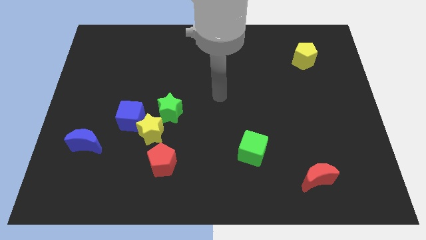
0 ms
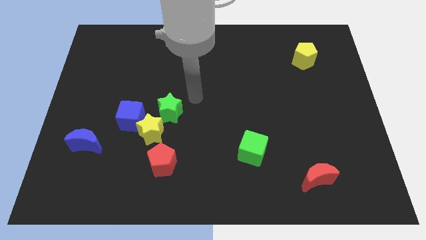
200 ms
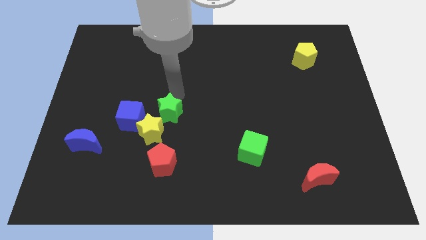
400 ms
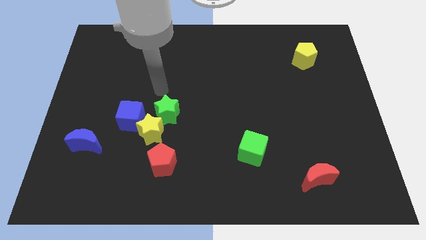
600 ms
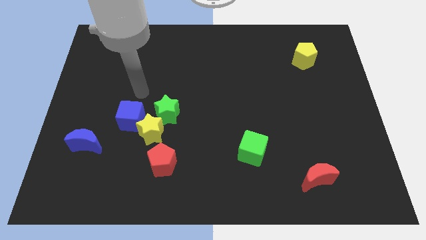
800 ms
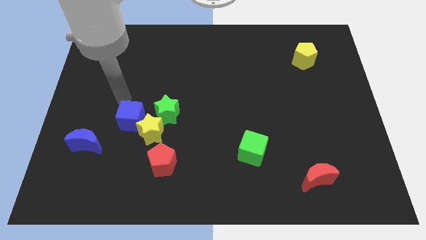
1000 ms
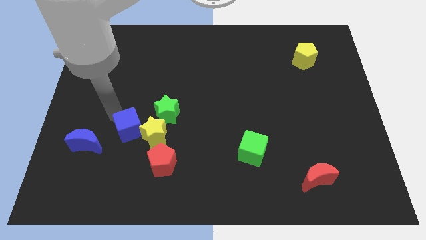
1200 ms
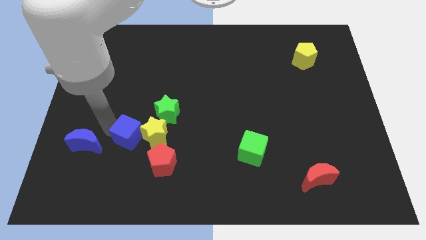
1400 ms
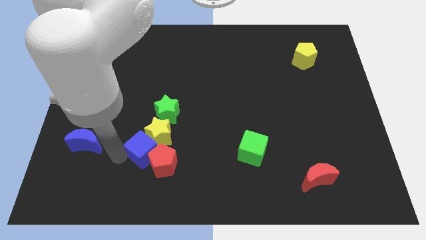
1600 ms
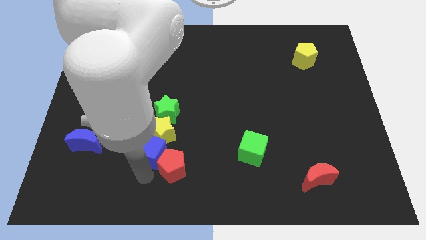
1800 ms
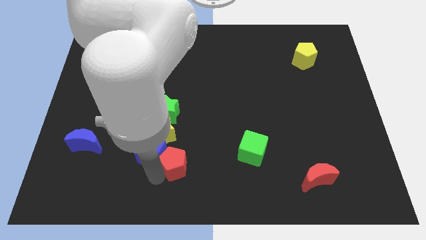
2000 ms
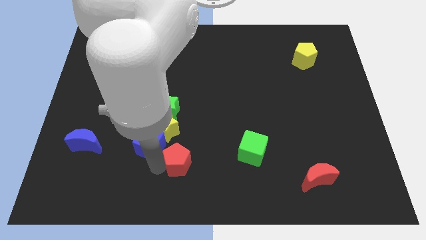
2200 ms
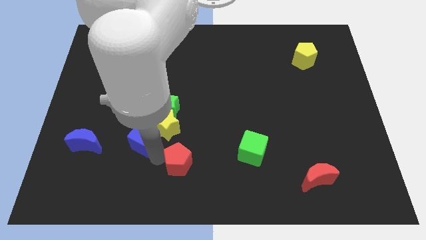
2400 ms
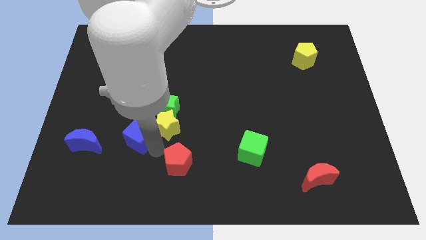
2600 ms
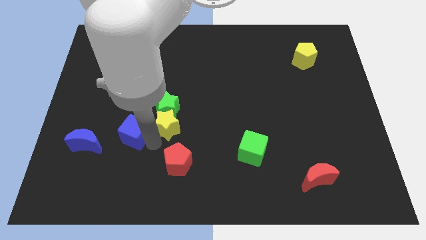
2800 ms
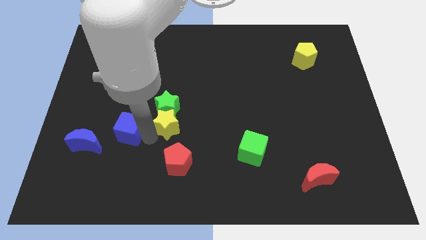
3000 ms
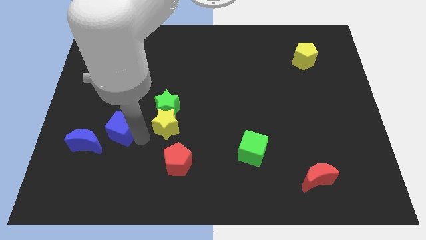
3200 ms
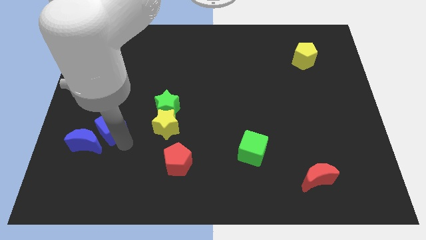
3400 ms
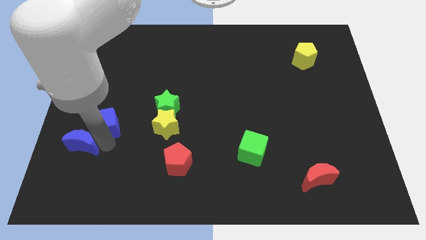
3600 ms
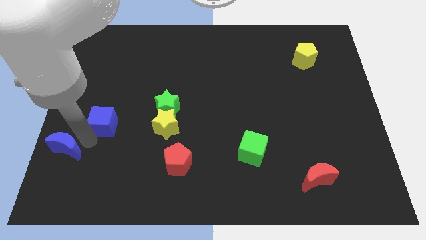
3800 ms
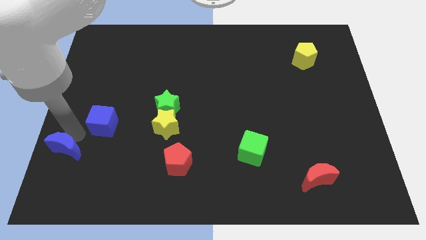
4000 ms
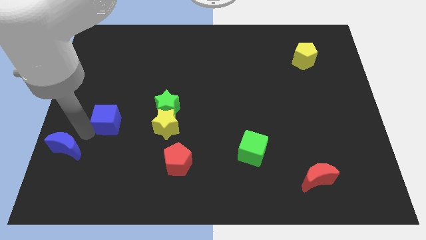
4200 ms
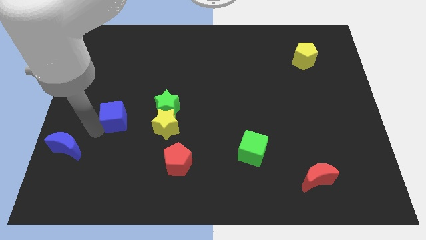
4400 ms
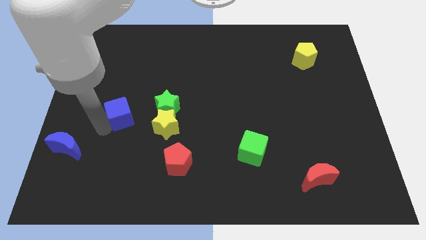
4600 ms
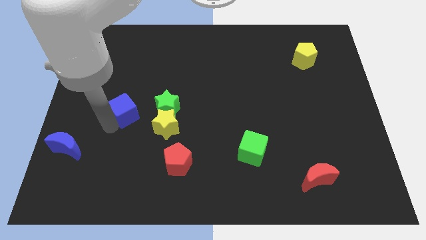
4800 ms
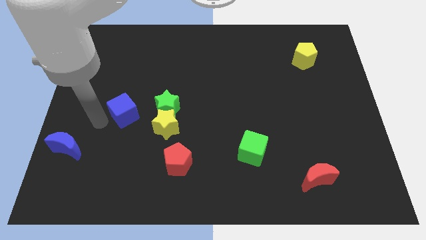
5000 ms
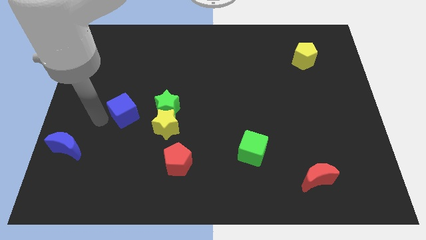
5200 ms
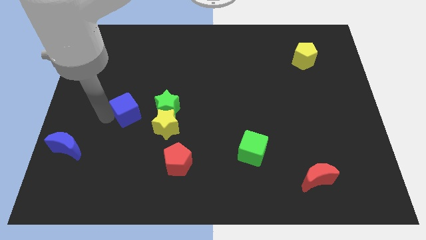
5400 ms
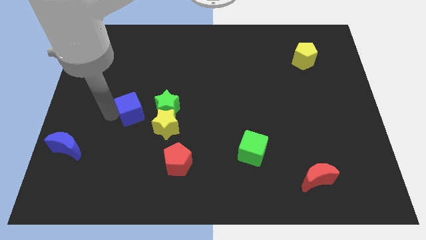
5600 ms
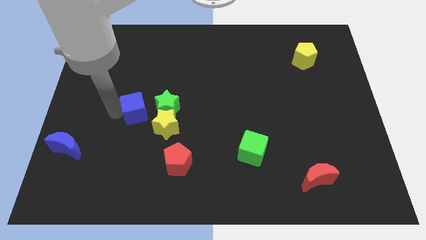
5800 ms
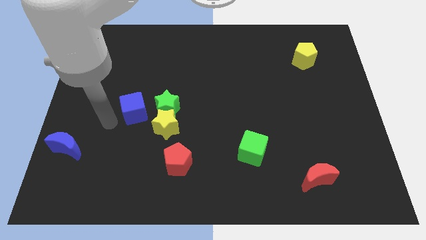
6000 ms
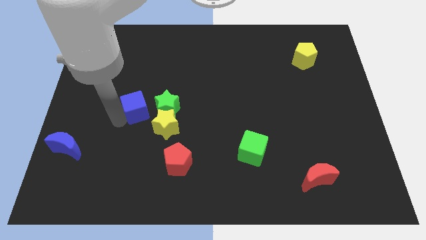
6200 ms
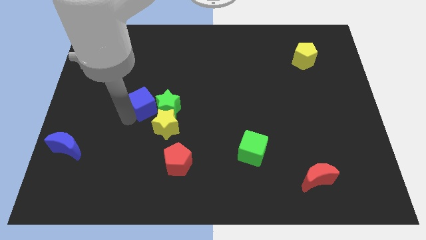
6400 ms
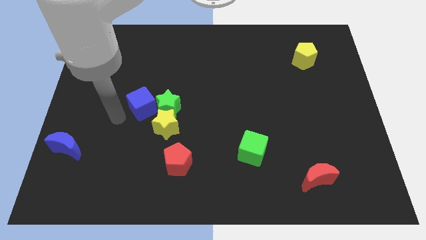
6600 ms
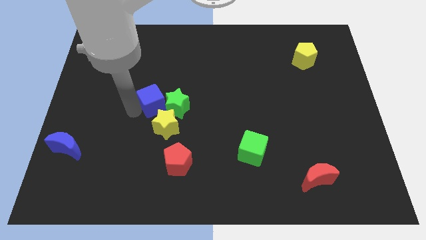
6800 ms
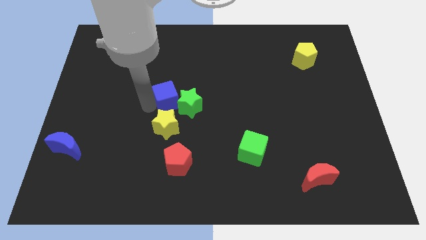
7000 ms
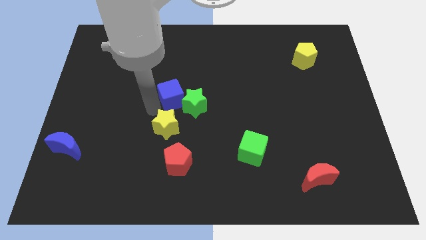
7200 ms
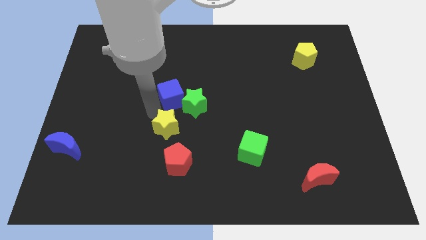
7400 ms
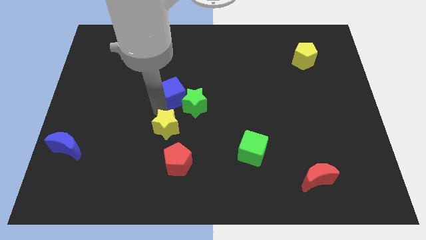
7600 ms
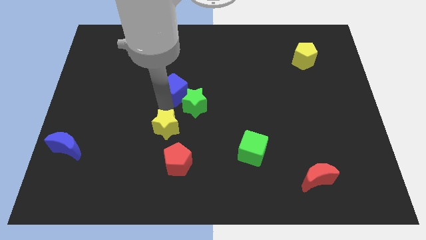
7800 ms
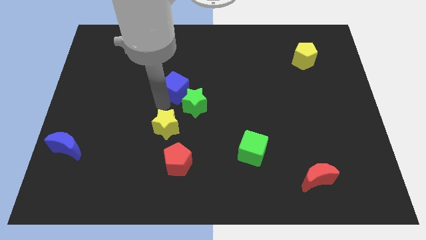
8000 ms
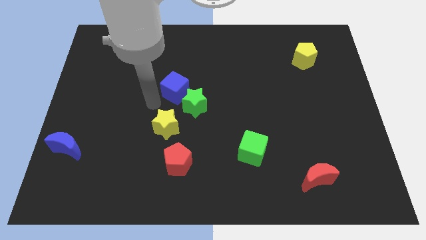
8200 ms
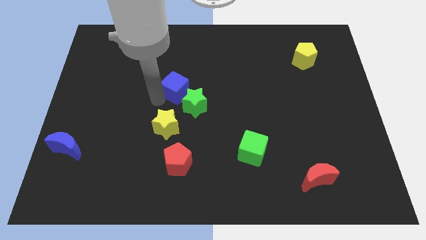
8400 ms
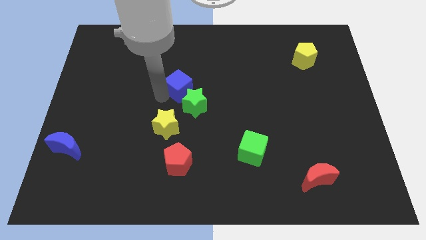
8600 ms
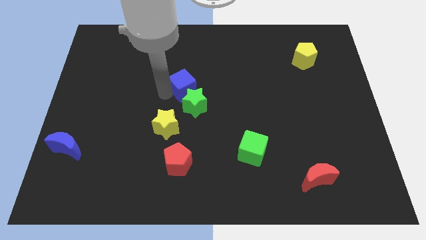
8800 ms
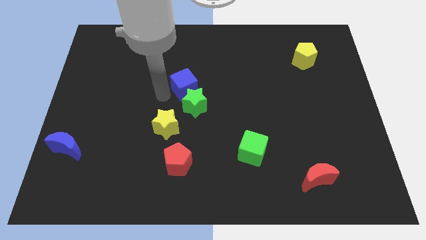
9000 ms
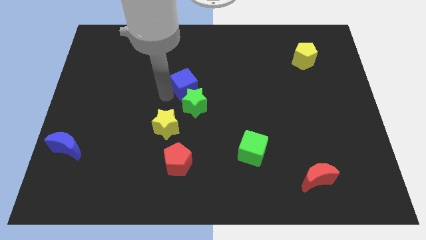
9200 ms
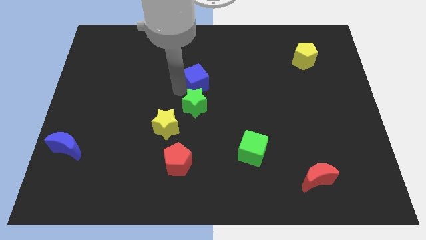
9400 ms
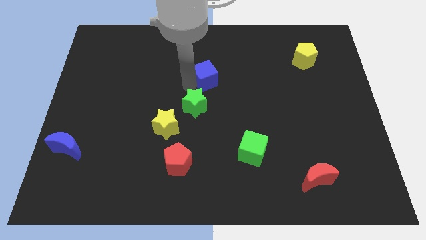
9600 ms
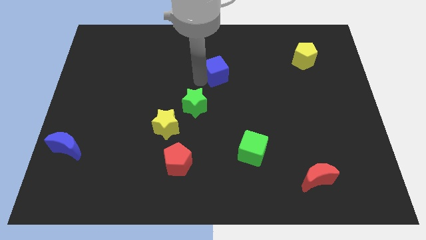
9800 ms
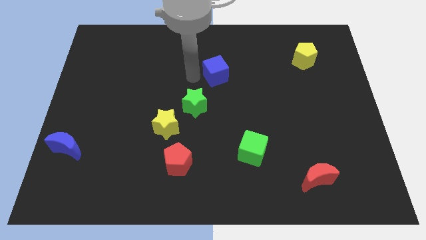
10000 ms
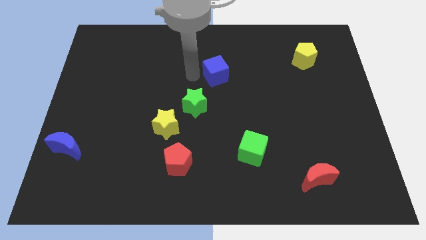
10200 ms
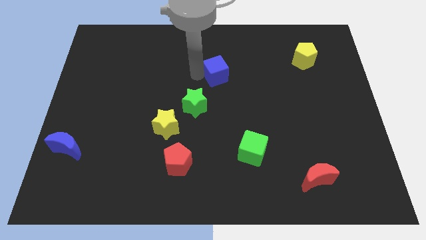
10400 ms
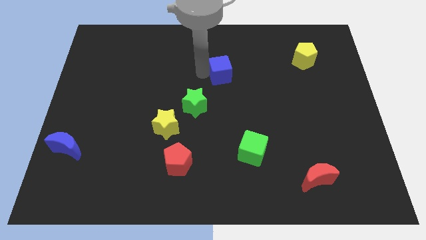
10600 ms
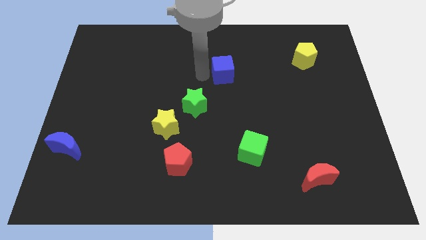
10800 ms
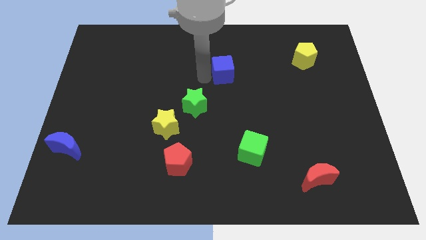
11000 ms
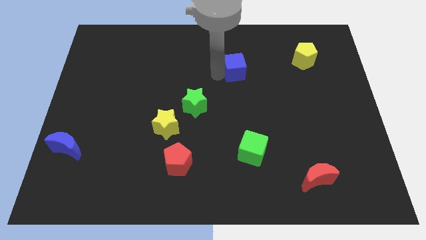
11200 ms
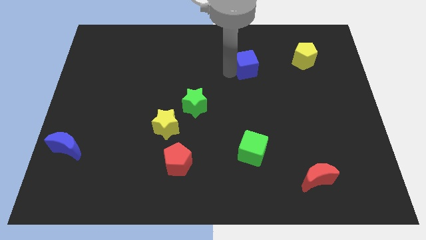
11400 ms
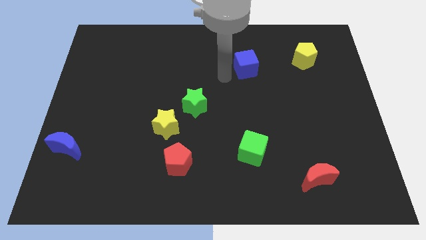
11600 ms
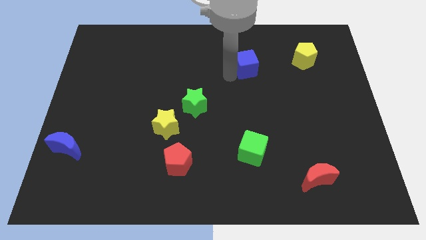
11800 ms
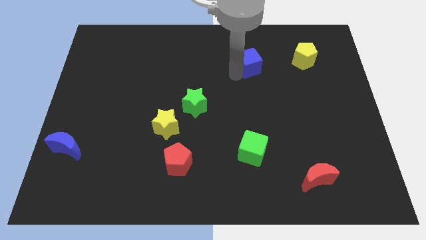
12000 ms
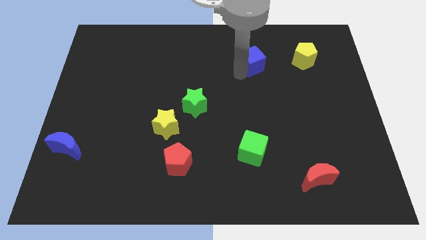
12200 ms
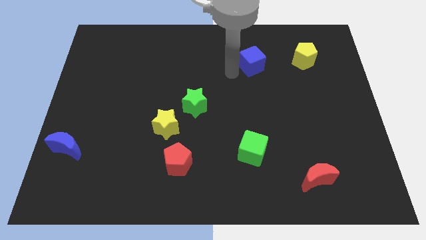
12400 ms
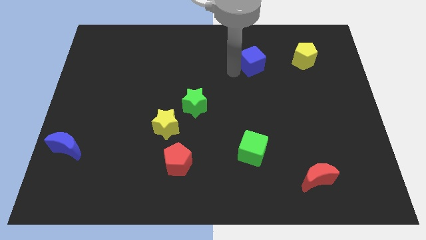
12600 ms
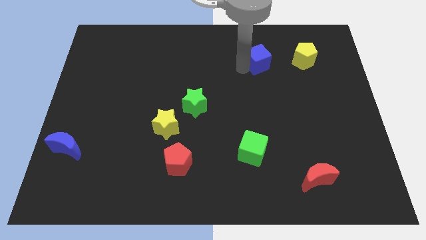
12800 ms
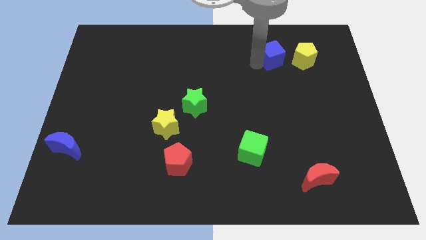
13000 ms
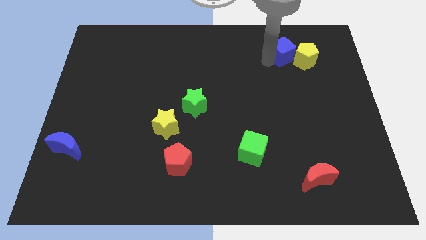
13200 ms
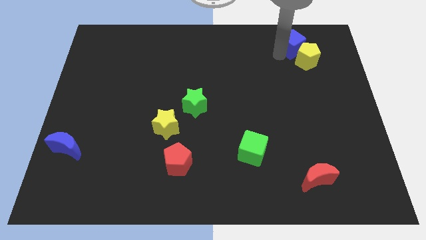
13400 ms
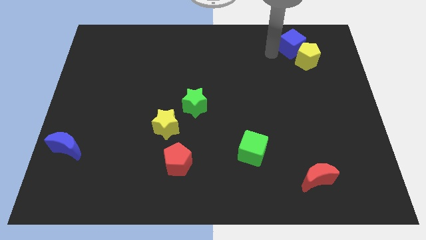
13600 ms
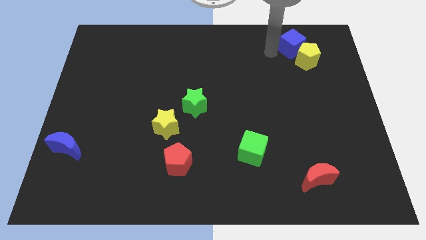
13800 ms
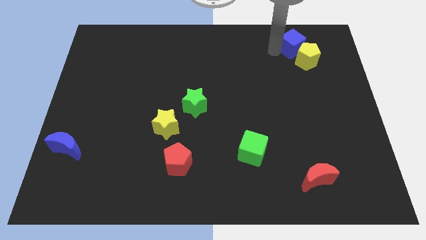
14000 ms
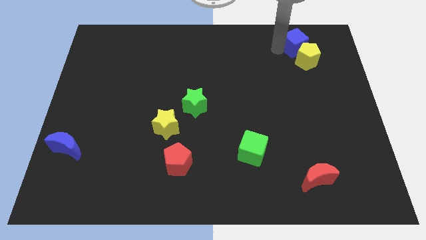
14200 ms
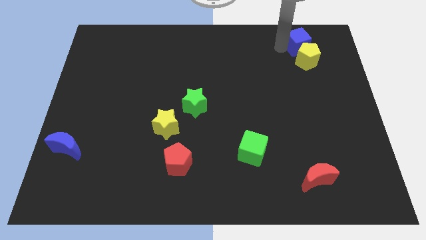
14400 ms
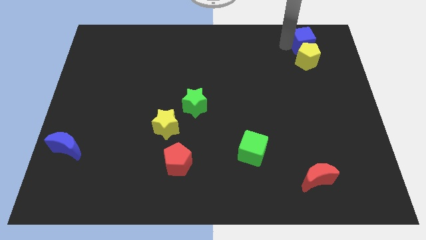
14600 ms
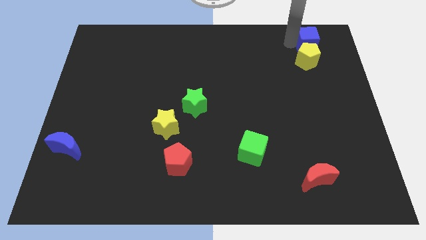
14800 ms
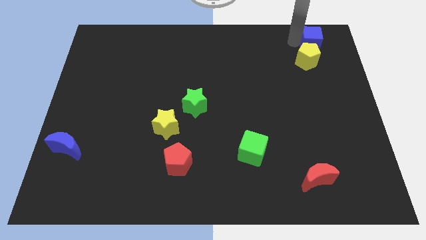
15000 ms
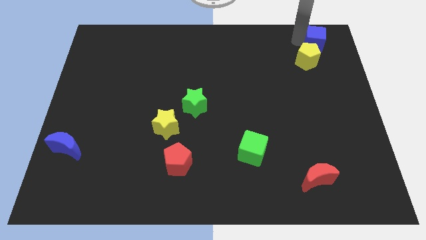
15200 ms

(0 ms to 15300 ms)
put the blue cube to the top right of the board
